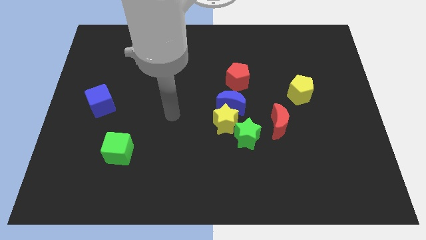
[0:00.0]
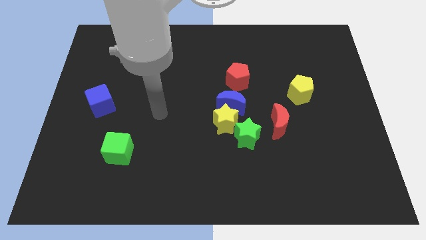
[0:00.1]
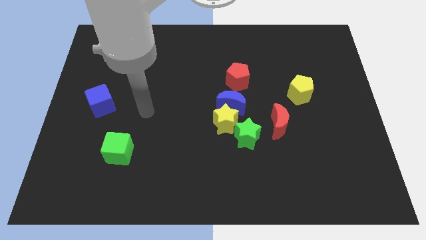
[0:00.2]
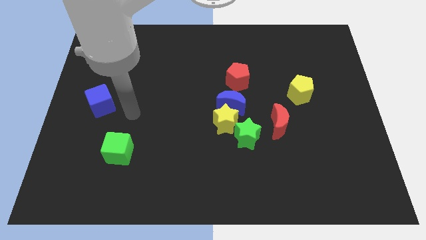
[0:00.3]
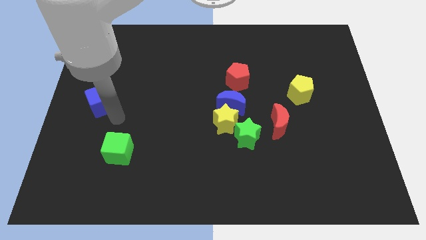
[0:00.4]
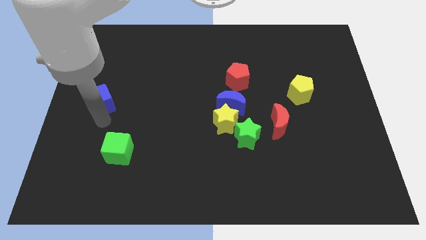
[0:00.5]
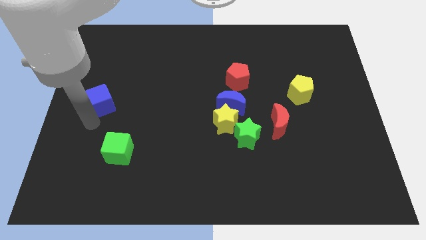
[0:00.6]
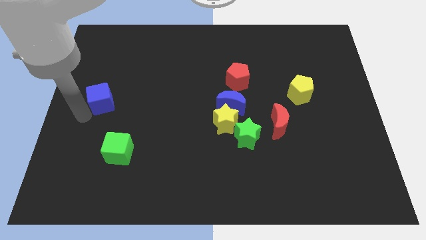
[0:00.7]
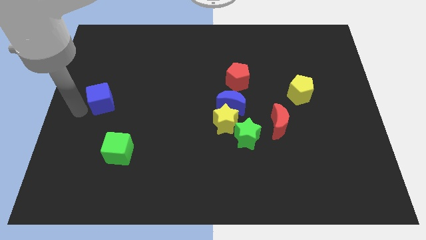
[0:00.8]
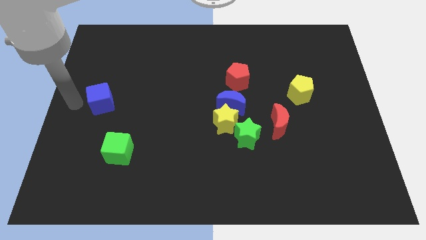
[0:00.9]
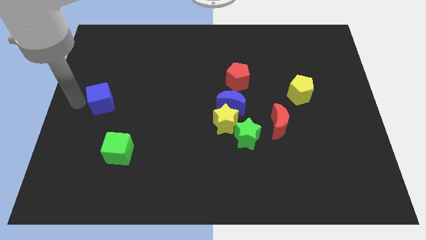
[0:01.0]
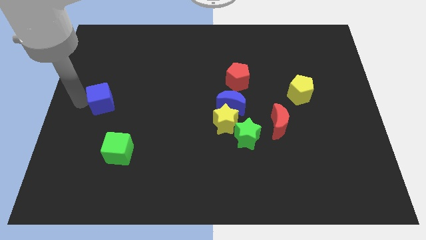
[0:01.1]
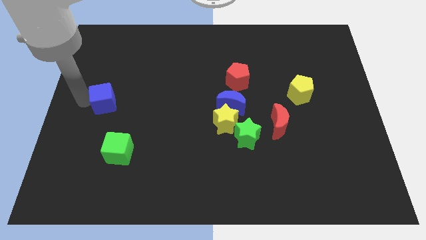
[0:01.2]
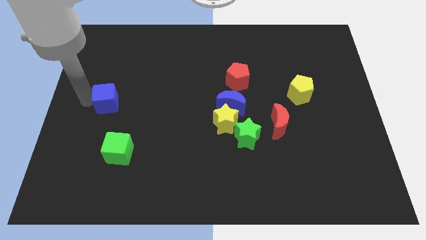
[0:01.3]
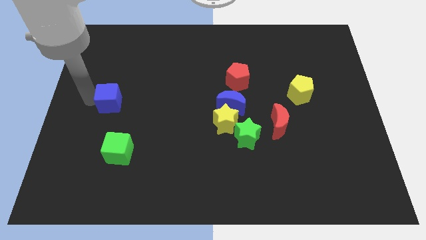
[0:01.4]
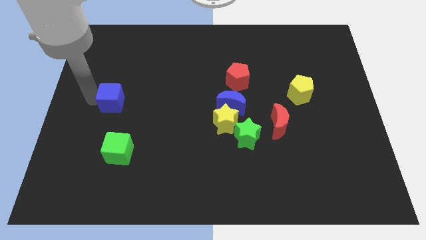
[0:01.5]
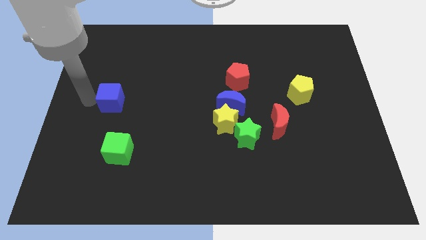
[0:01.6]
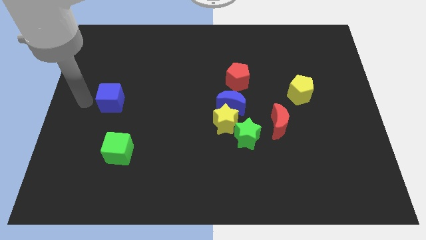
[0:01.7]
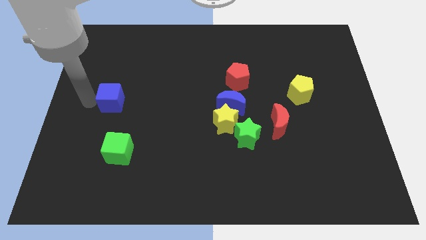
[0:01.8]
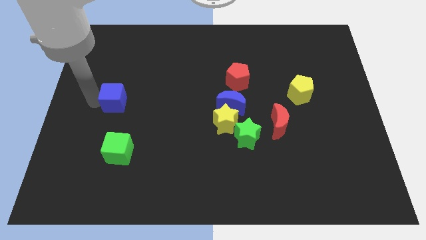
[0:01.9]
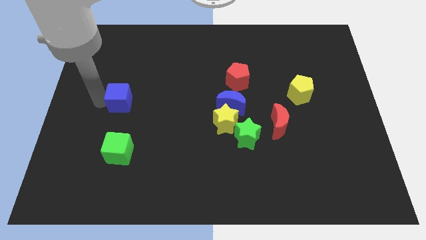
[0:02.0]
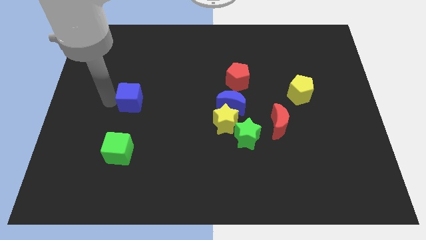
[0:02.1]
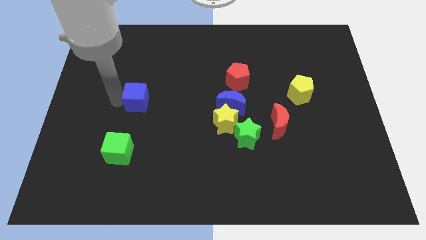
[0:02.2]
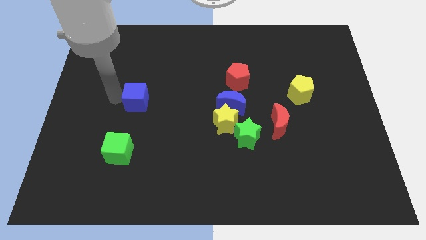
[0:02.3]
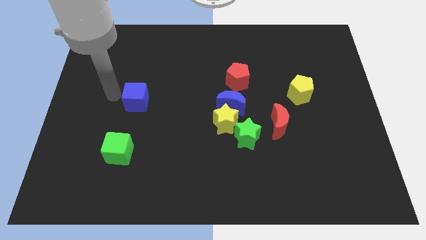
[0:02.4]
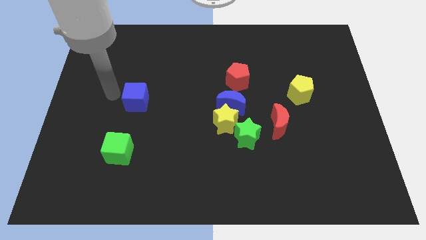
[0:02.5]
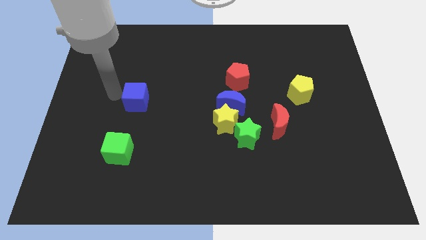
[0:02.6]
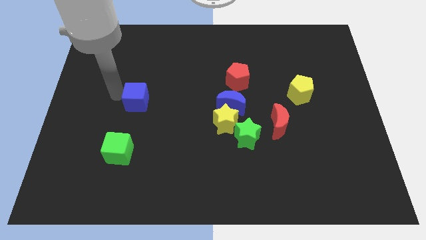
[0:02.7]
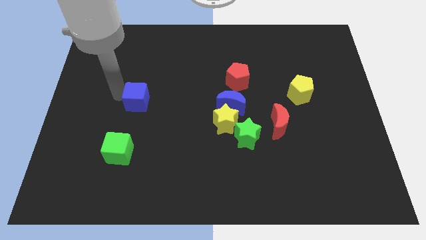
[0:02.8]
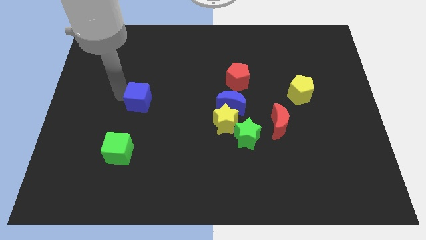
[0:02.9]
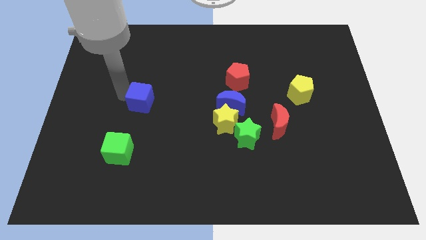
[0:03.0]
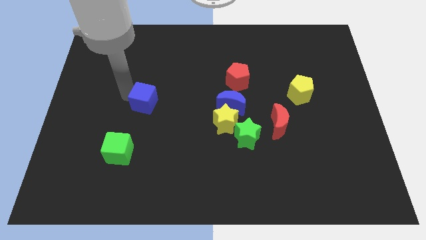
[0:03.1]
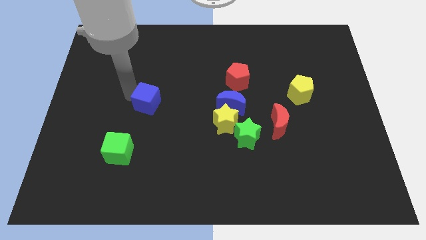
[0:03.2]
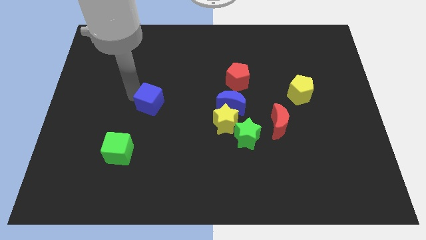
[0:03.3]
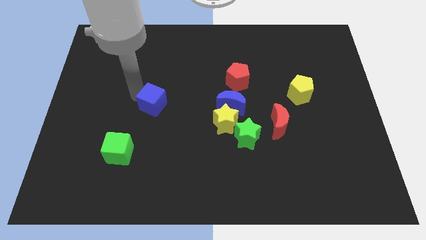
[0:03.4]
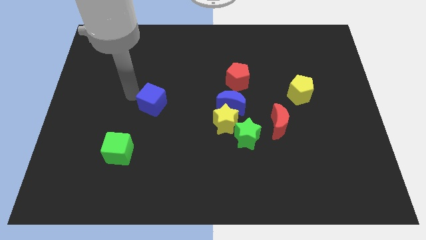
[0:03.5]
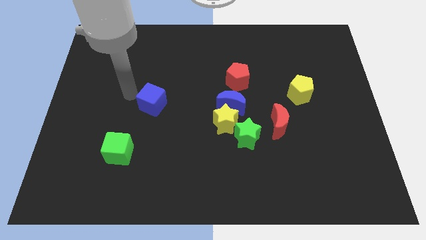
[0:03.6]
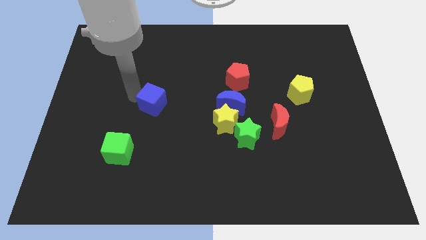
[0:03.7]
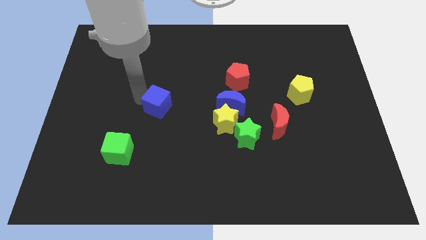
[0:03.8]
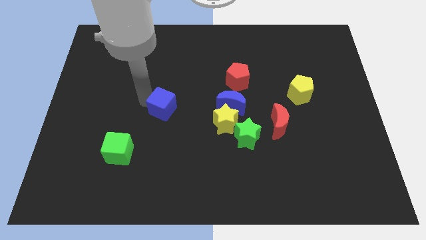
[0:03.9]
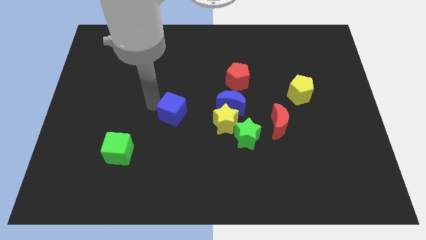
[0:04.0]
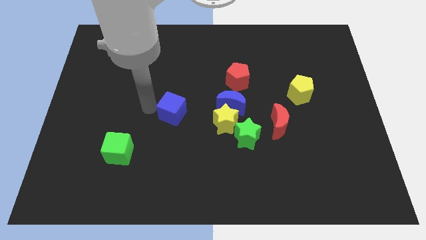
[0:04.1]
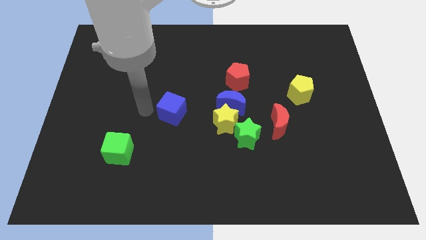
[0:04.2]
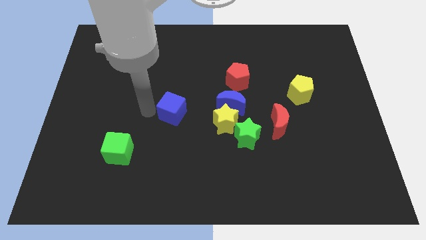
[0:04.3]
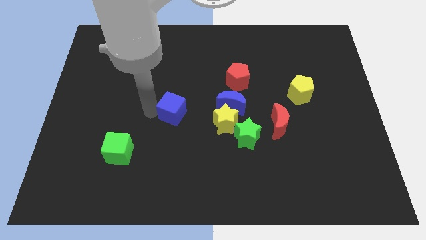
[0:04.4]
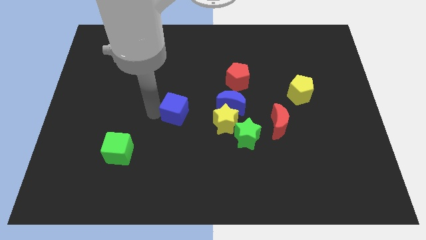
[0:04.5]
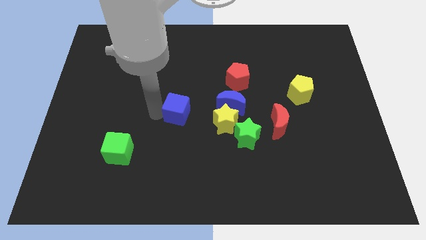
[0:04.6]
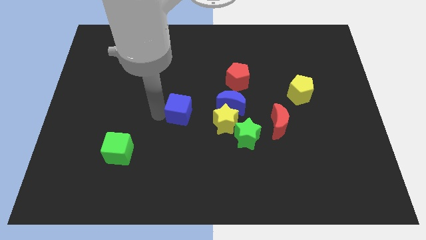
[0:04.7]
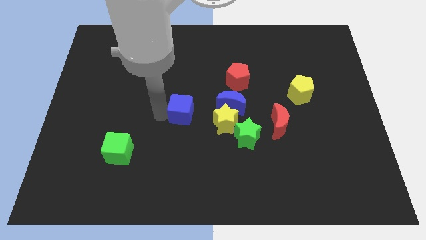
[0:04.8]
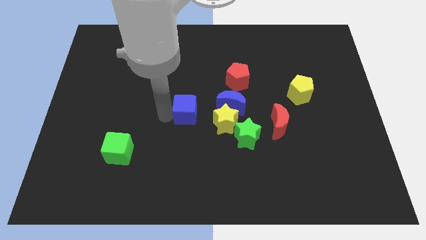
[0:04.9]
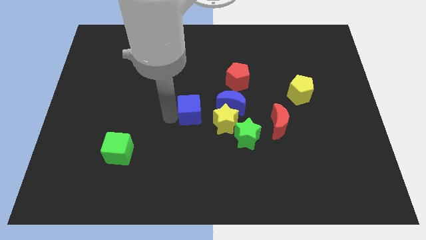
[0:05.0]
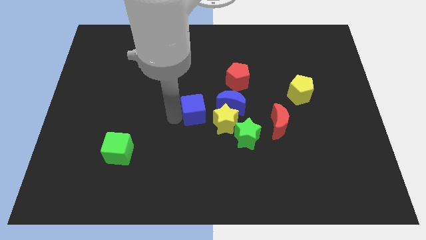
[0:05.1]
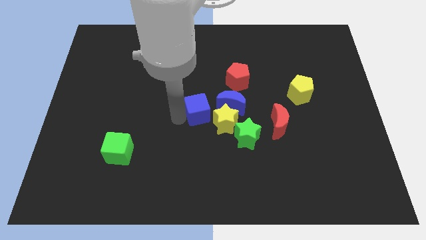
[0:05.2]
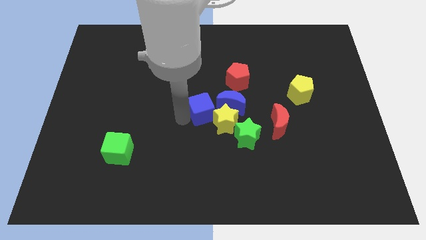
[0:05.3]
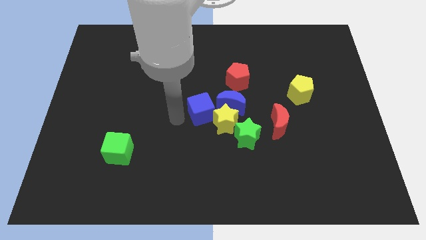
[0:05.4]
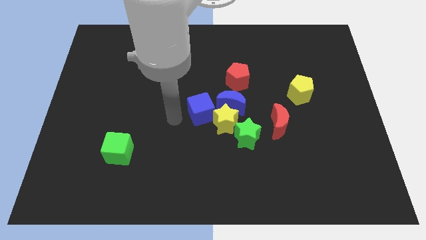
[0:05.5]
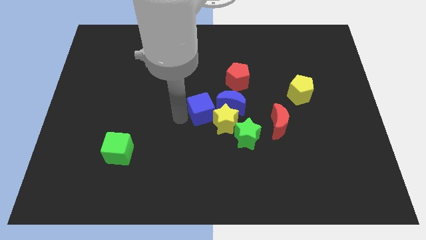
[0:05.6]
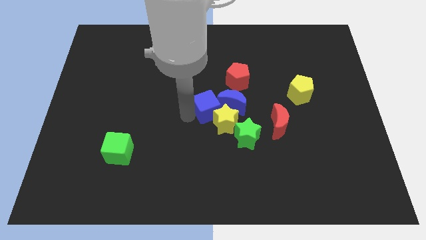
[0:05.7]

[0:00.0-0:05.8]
slide the blue cube close to the blue moon

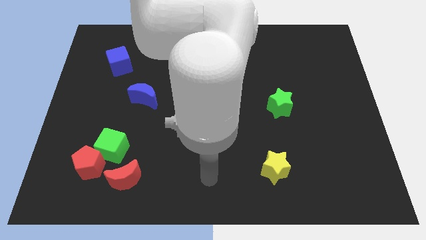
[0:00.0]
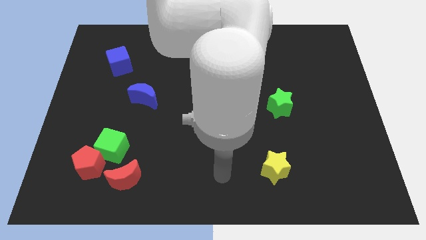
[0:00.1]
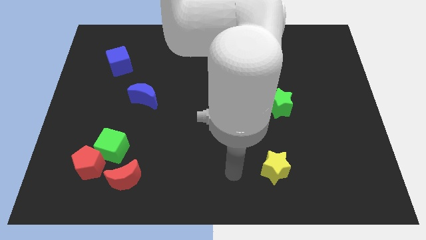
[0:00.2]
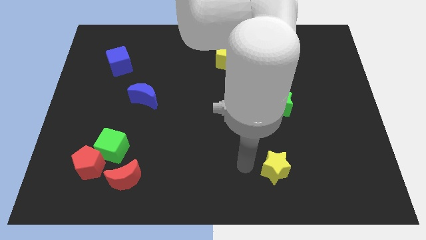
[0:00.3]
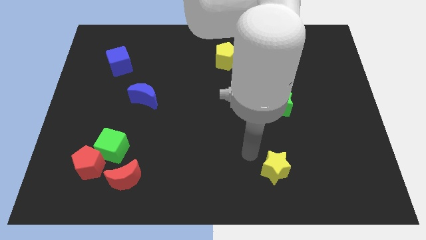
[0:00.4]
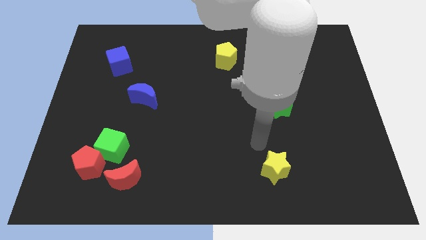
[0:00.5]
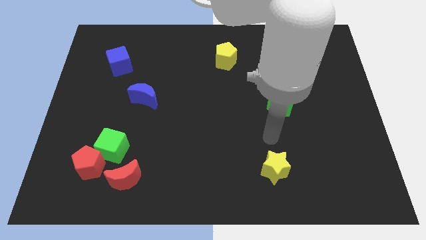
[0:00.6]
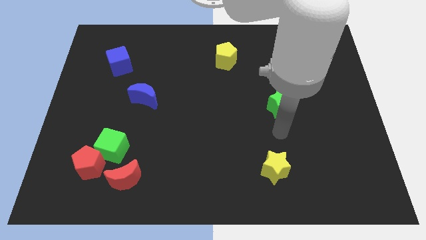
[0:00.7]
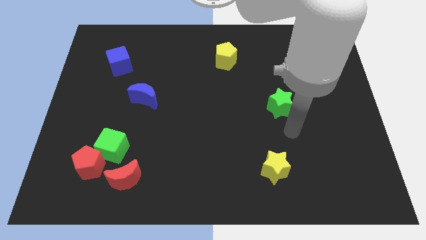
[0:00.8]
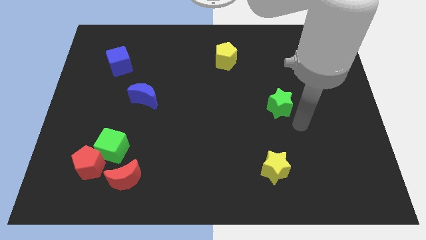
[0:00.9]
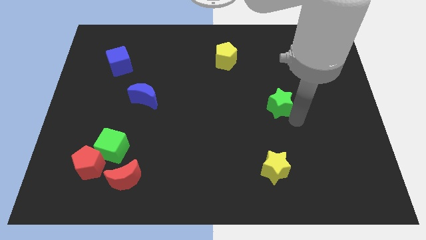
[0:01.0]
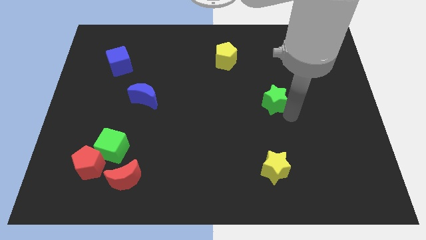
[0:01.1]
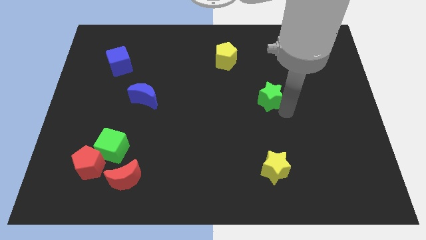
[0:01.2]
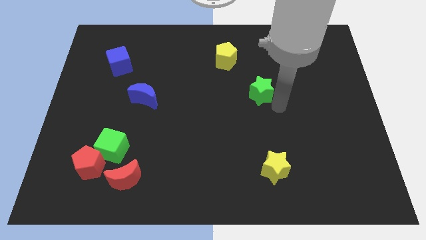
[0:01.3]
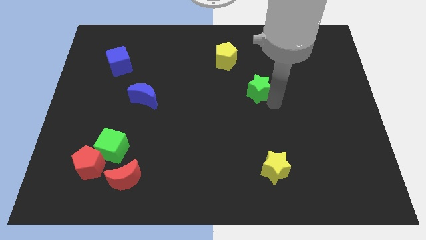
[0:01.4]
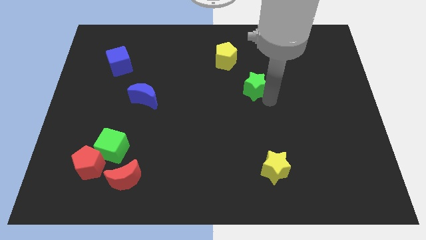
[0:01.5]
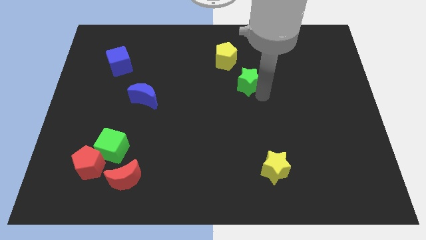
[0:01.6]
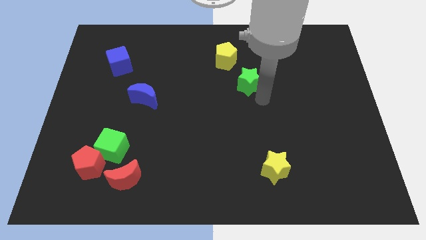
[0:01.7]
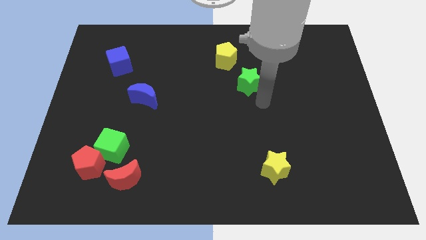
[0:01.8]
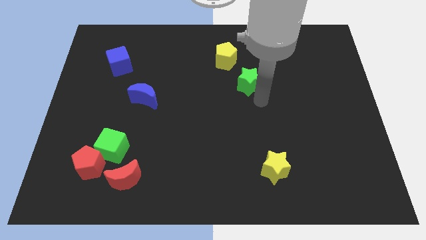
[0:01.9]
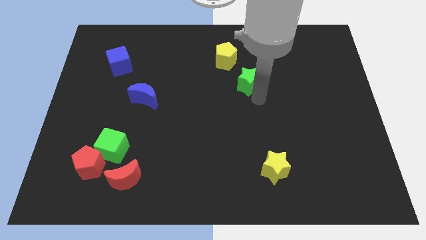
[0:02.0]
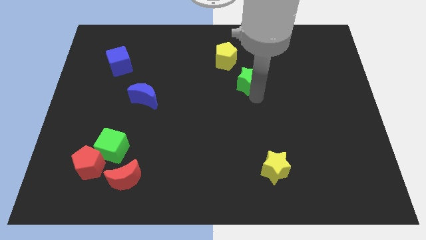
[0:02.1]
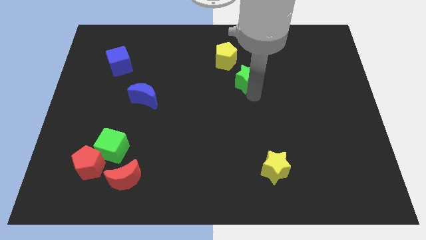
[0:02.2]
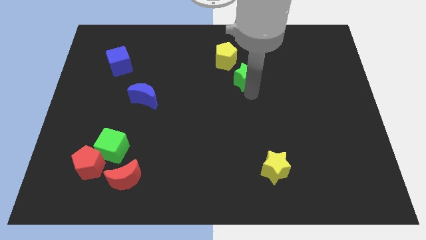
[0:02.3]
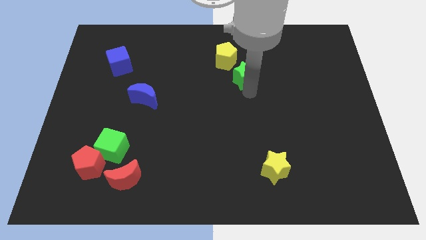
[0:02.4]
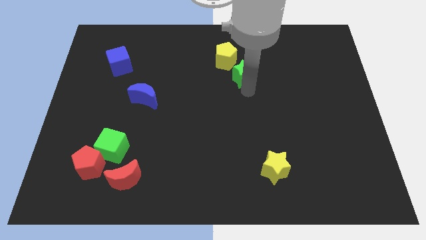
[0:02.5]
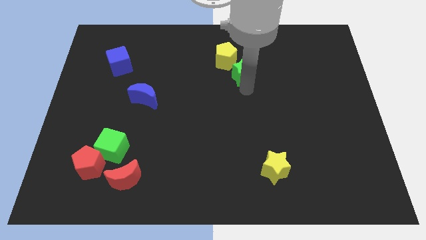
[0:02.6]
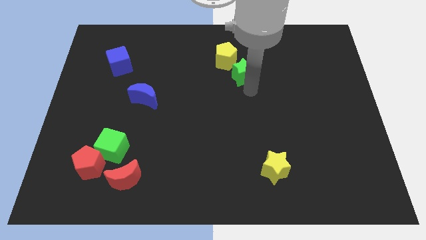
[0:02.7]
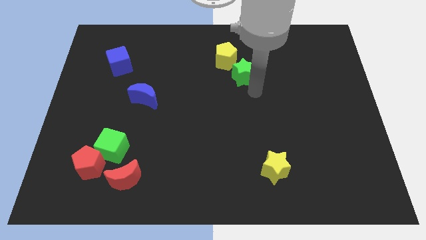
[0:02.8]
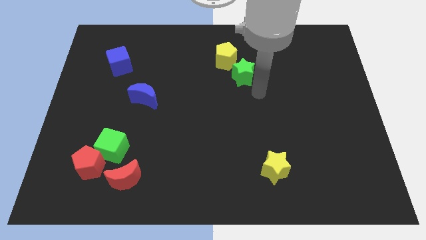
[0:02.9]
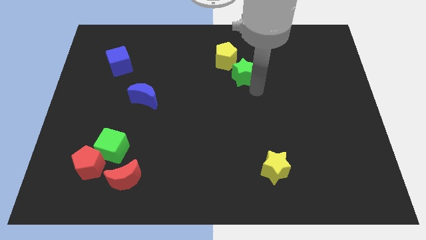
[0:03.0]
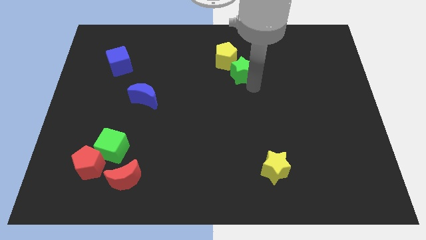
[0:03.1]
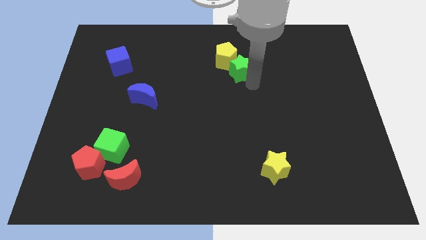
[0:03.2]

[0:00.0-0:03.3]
put the green star close to the yellow pentagon
